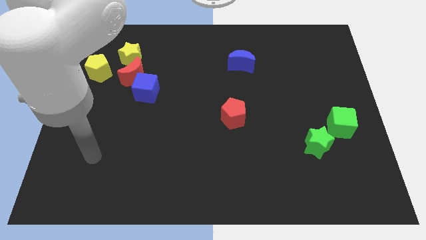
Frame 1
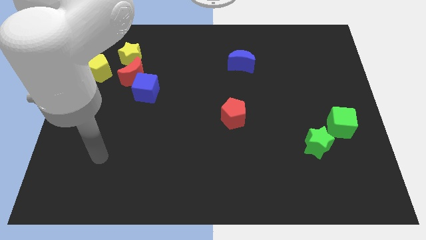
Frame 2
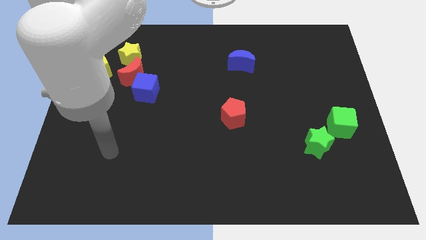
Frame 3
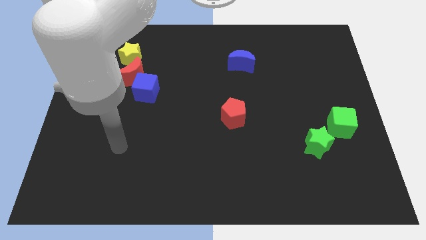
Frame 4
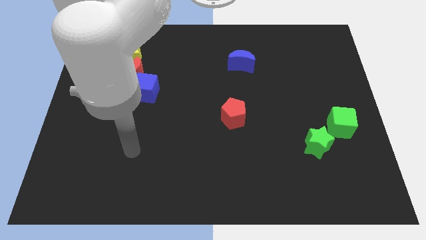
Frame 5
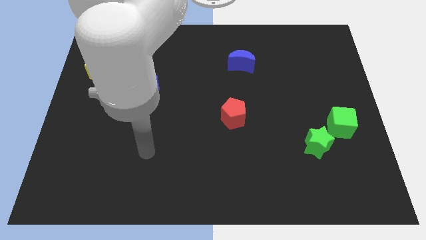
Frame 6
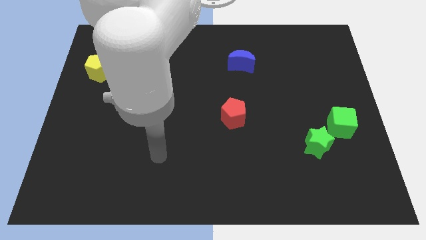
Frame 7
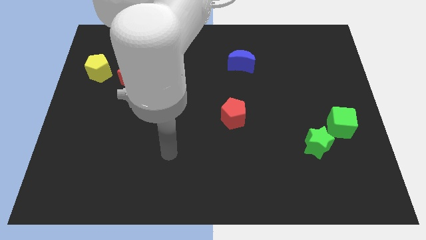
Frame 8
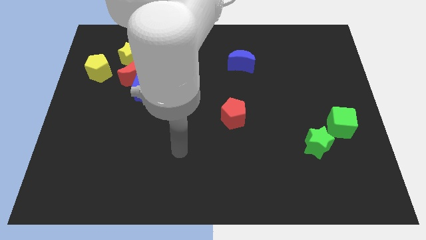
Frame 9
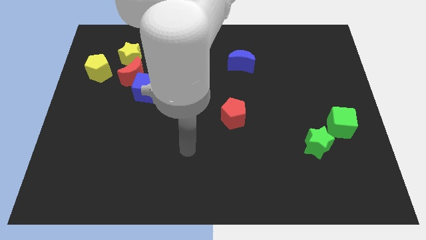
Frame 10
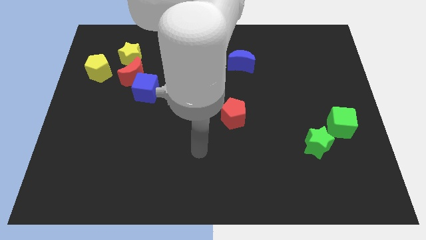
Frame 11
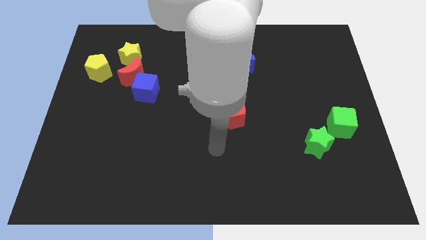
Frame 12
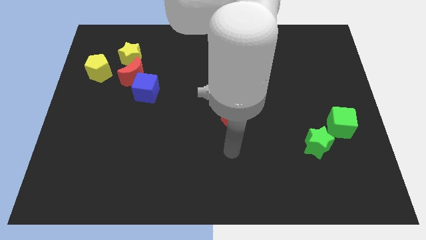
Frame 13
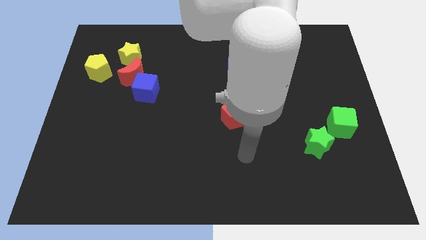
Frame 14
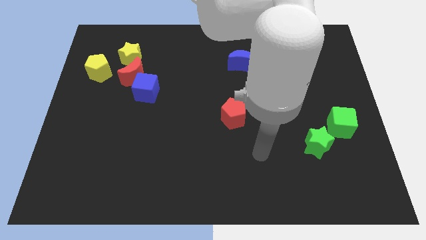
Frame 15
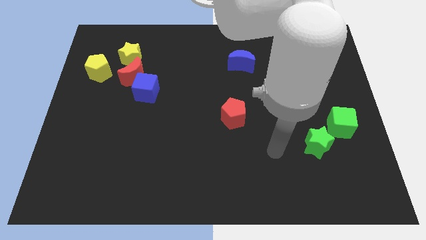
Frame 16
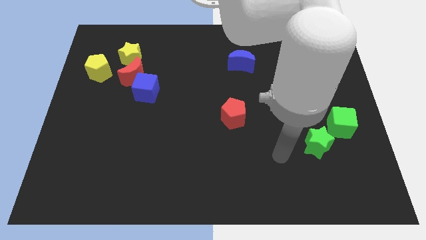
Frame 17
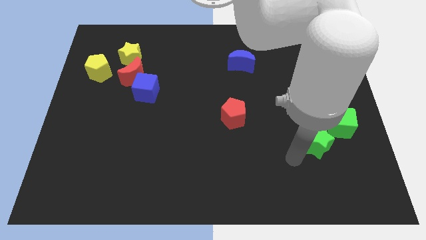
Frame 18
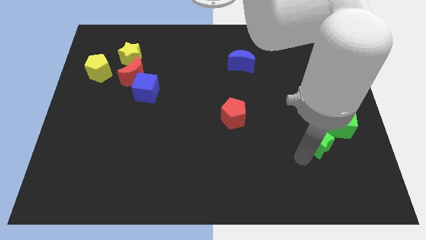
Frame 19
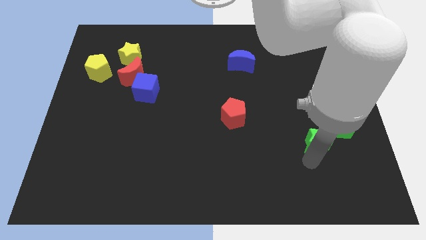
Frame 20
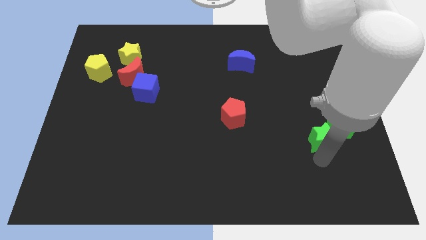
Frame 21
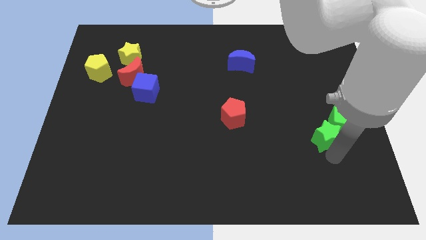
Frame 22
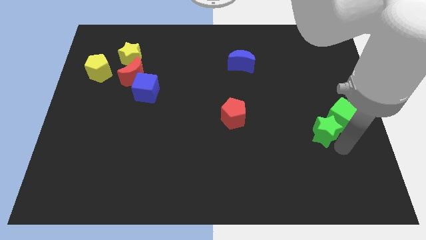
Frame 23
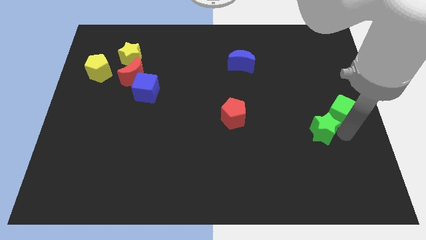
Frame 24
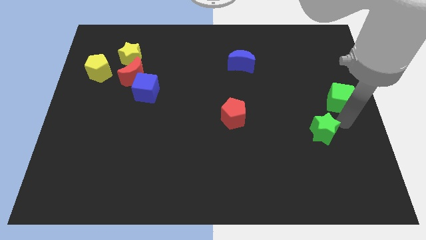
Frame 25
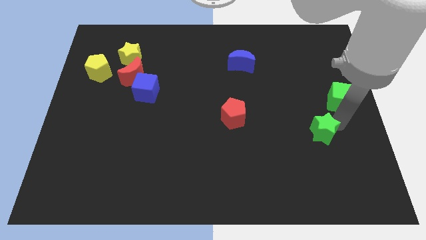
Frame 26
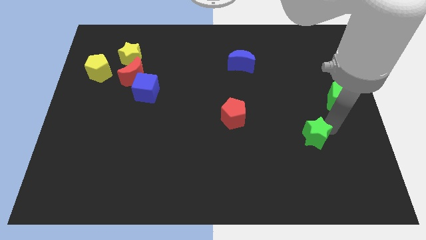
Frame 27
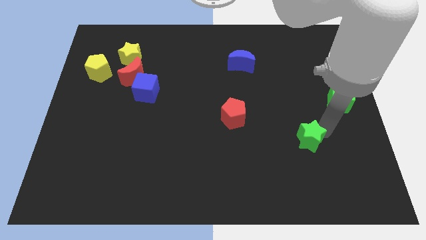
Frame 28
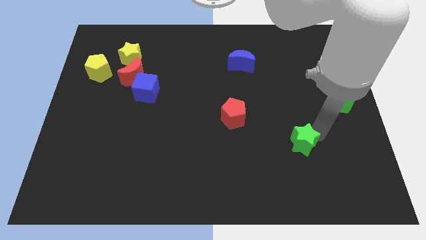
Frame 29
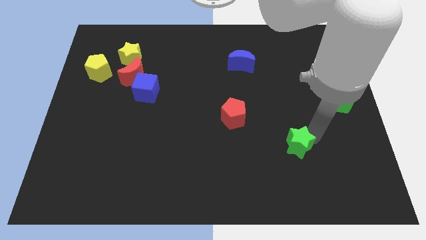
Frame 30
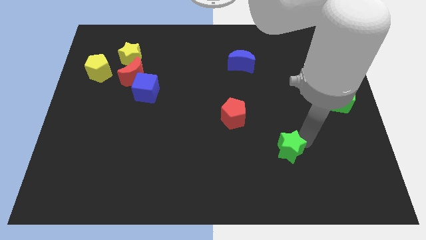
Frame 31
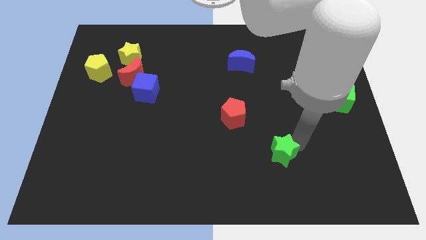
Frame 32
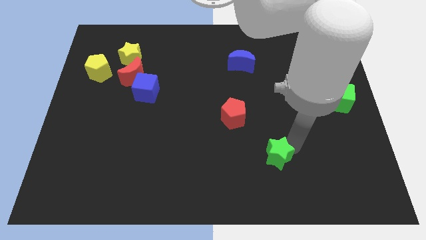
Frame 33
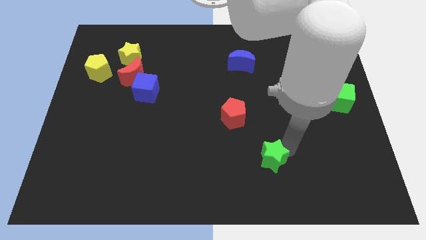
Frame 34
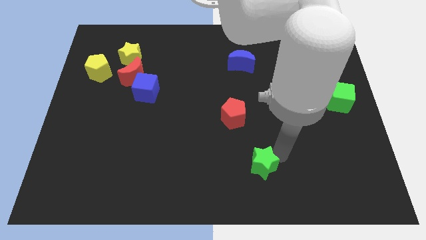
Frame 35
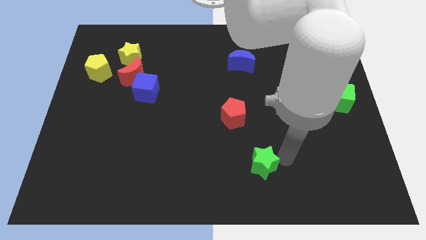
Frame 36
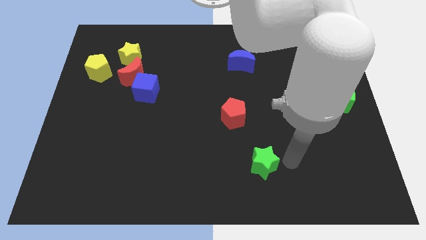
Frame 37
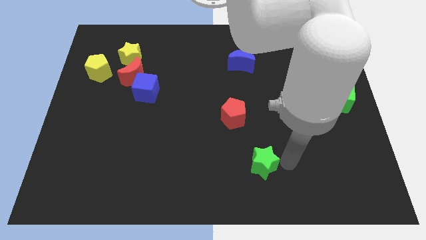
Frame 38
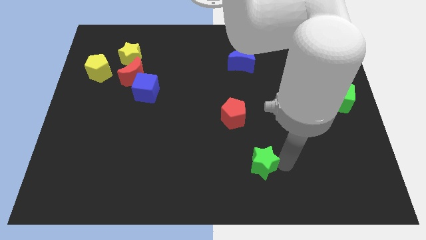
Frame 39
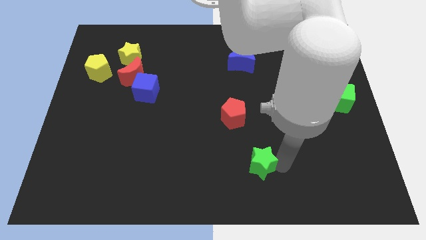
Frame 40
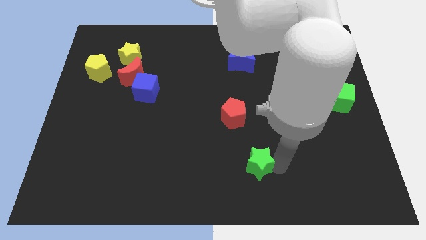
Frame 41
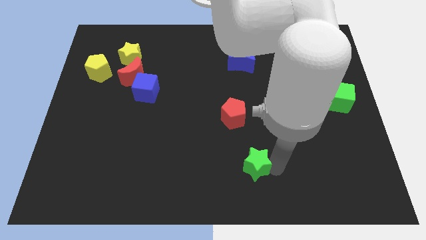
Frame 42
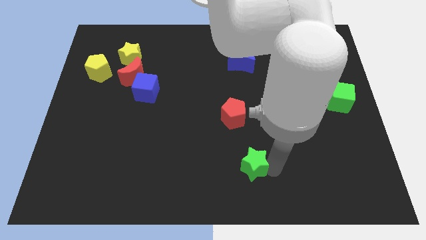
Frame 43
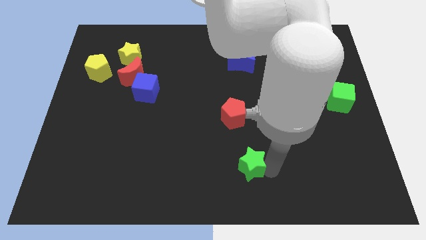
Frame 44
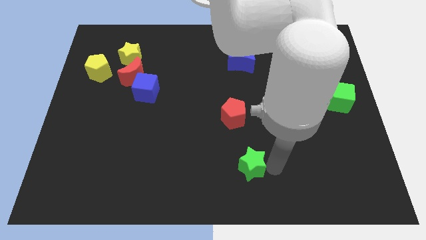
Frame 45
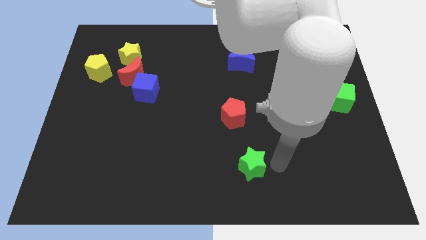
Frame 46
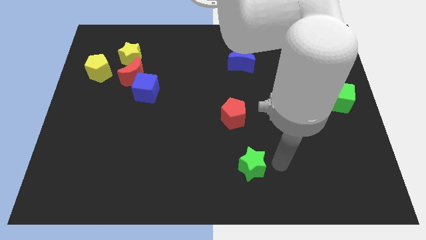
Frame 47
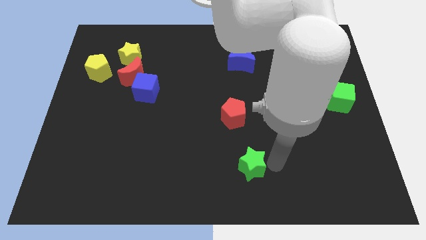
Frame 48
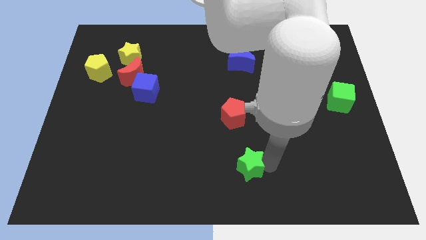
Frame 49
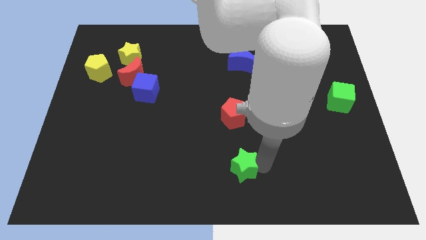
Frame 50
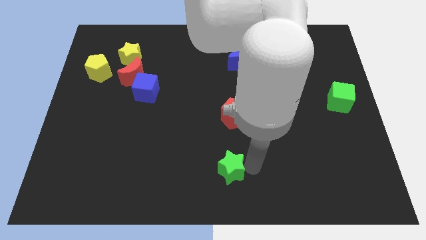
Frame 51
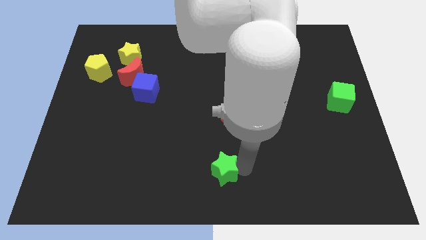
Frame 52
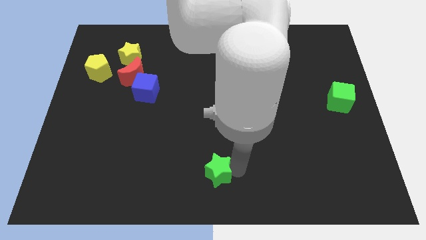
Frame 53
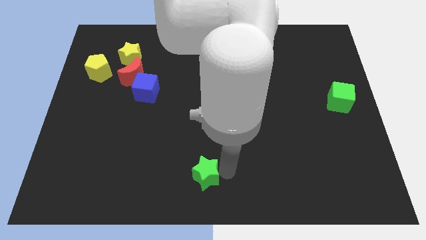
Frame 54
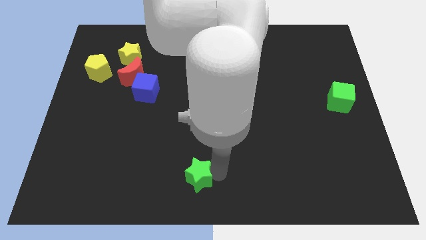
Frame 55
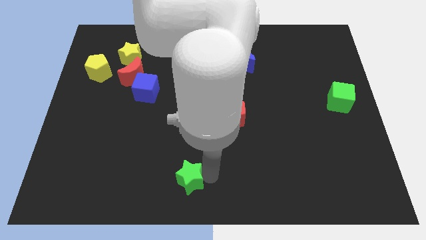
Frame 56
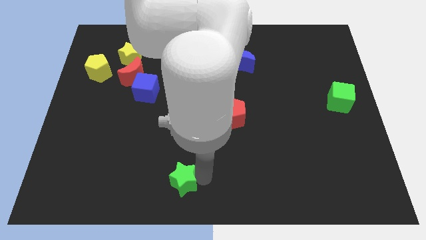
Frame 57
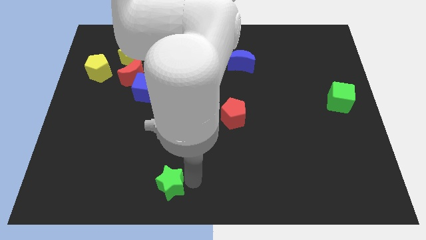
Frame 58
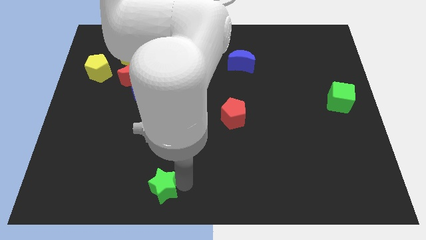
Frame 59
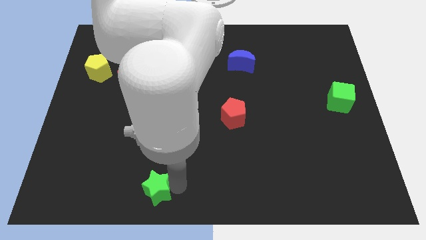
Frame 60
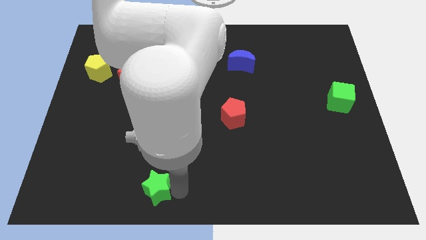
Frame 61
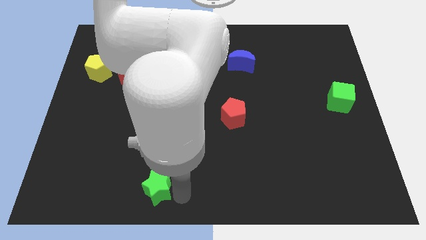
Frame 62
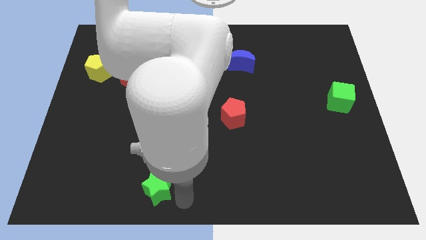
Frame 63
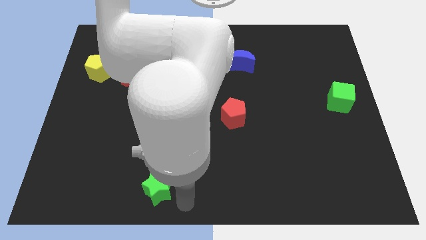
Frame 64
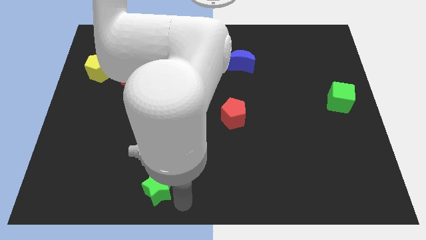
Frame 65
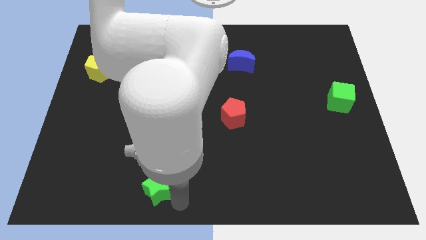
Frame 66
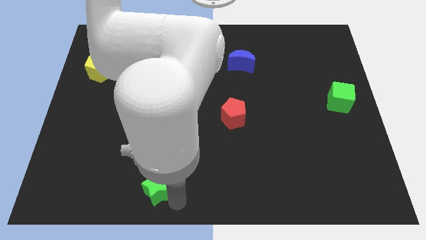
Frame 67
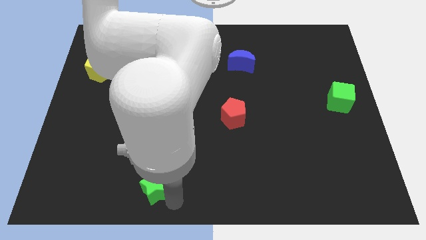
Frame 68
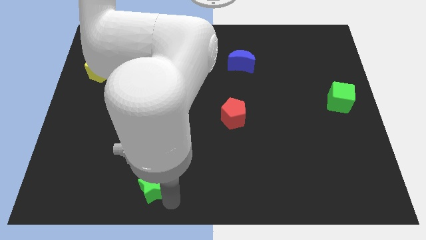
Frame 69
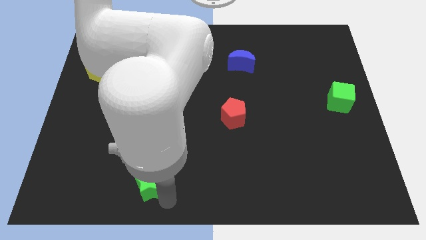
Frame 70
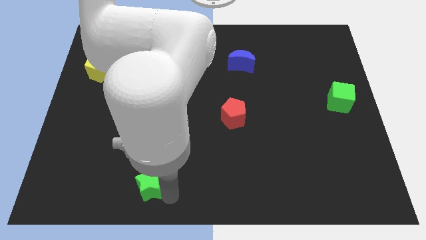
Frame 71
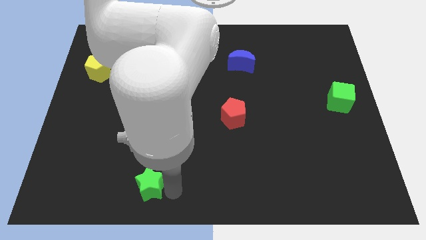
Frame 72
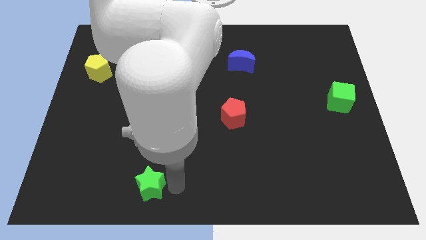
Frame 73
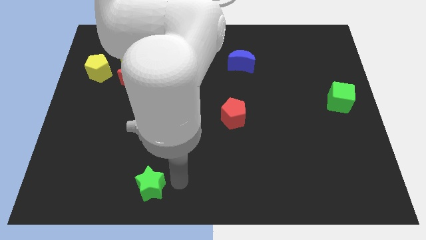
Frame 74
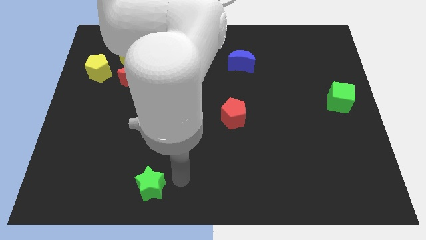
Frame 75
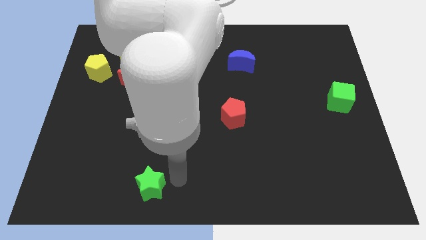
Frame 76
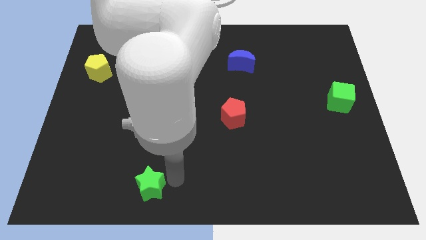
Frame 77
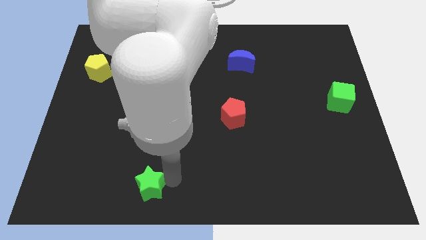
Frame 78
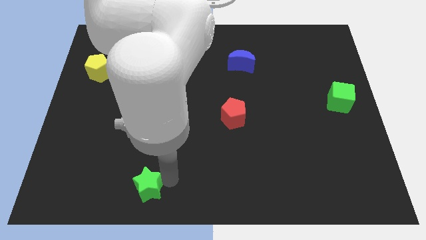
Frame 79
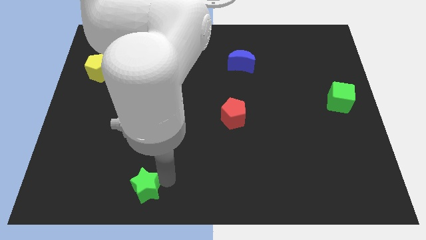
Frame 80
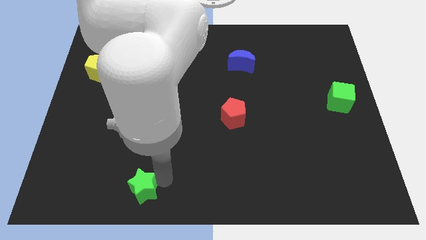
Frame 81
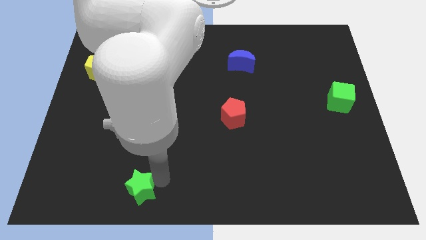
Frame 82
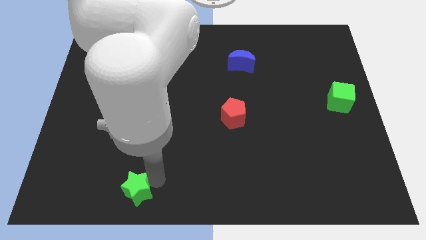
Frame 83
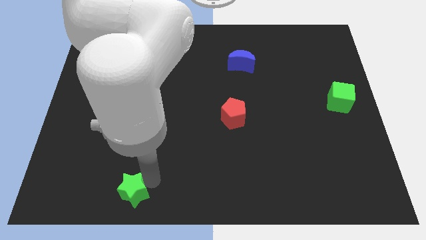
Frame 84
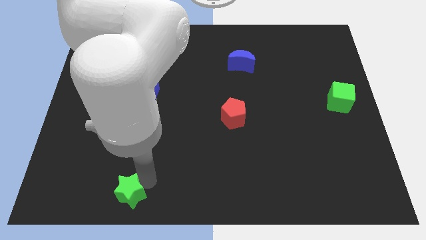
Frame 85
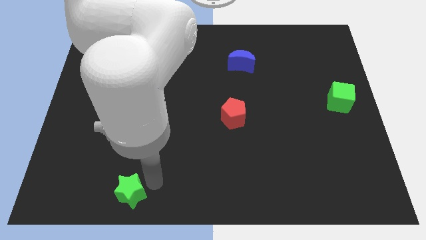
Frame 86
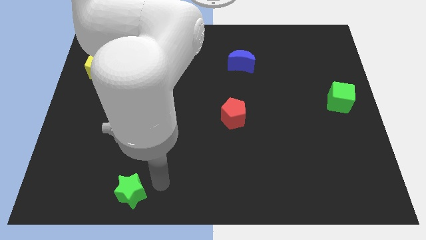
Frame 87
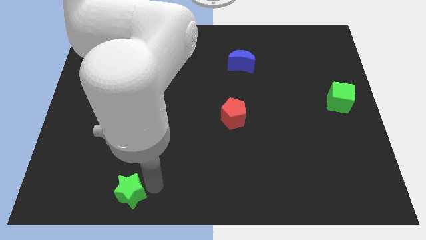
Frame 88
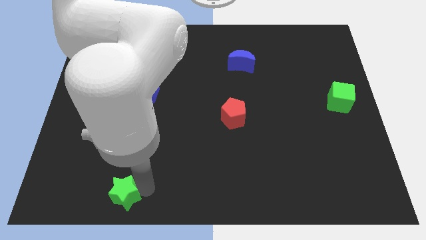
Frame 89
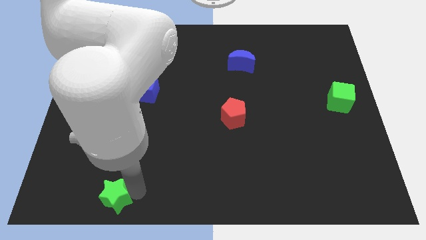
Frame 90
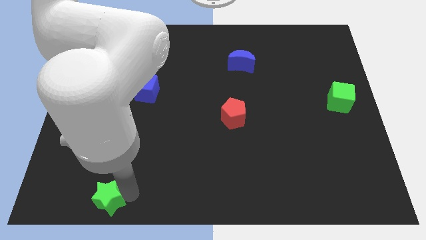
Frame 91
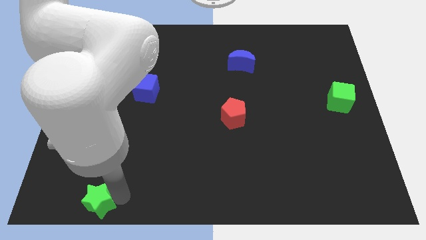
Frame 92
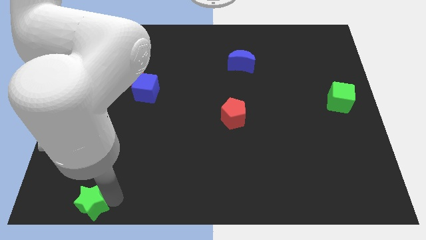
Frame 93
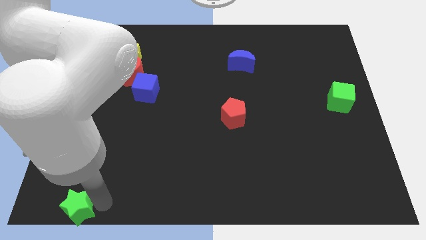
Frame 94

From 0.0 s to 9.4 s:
push the green star to the bottom left of the board
